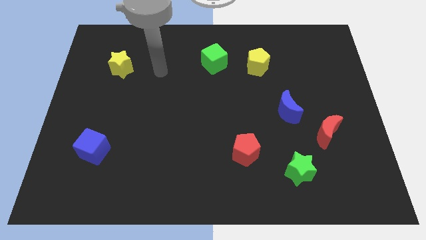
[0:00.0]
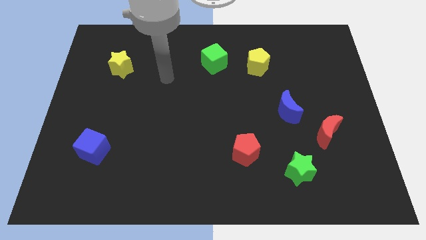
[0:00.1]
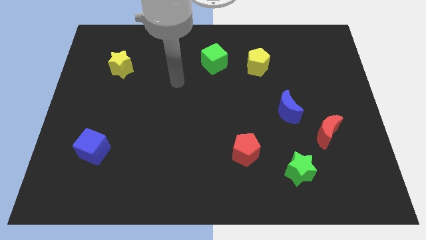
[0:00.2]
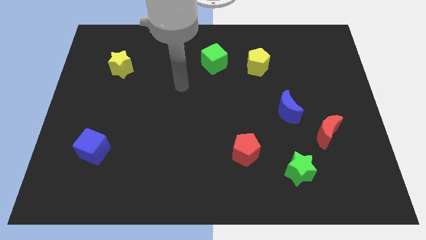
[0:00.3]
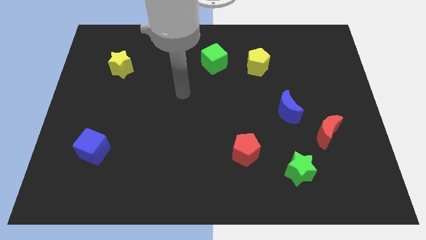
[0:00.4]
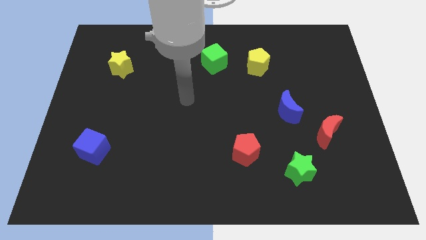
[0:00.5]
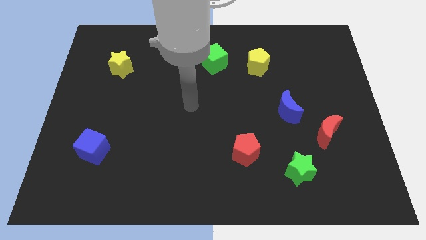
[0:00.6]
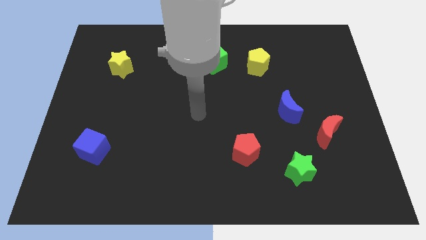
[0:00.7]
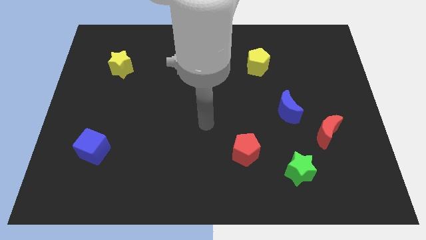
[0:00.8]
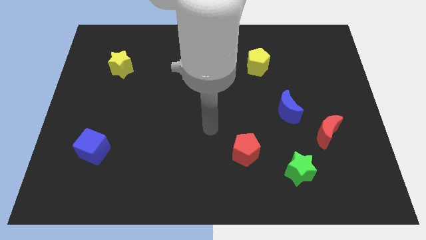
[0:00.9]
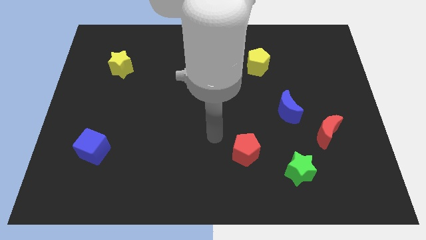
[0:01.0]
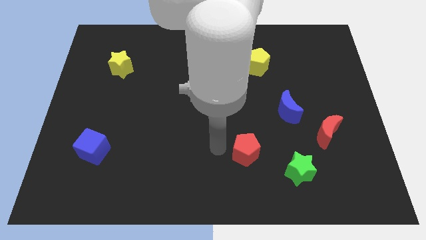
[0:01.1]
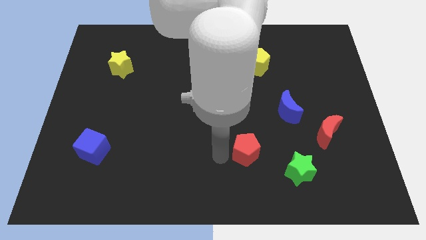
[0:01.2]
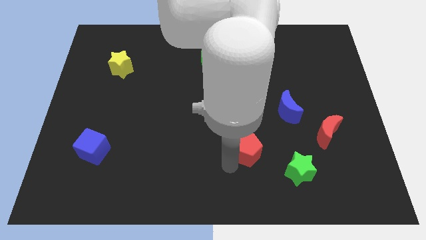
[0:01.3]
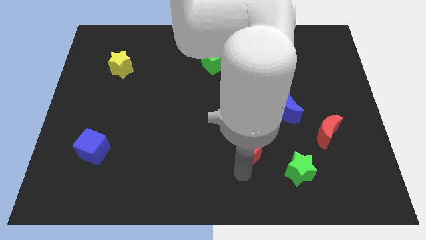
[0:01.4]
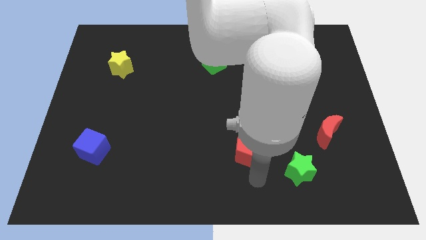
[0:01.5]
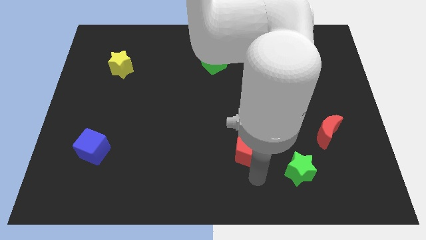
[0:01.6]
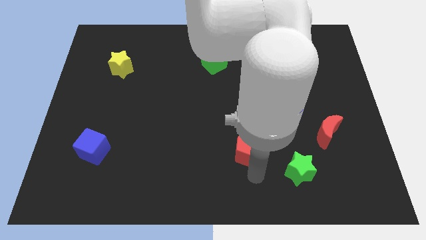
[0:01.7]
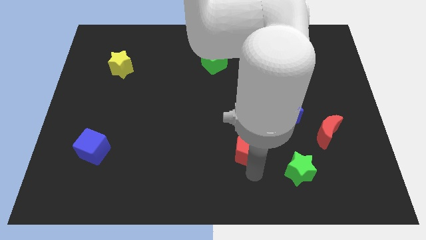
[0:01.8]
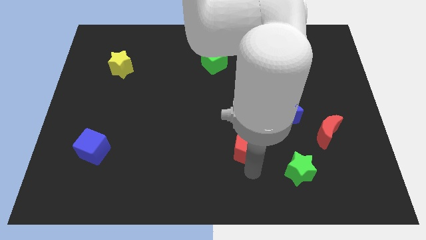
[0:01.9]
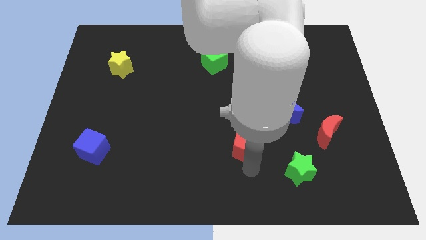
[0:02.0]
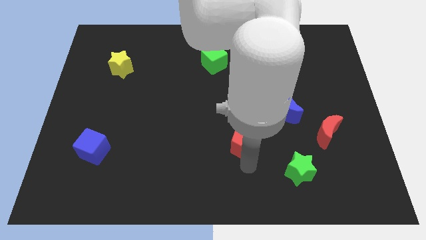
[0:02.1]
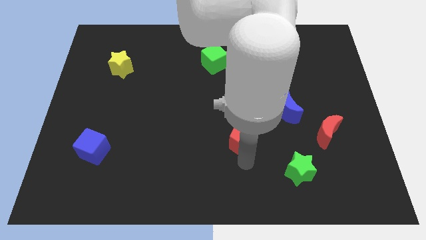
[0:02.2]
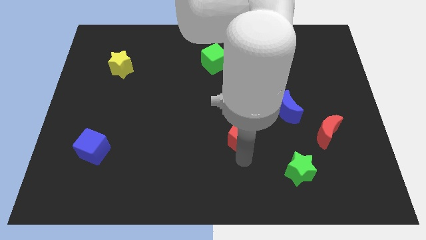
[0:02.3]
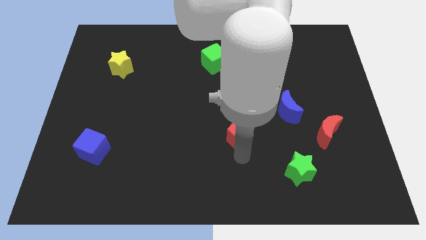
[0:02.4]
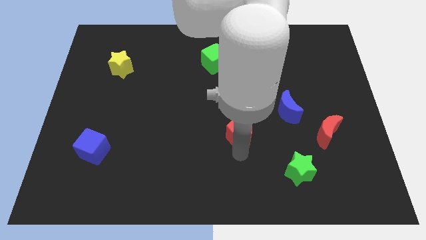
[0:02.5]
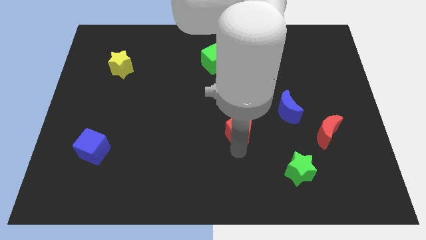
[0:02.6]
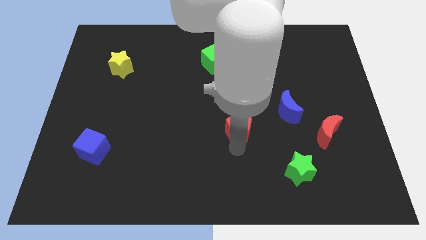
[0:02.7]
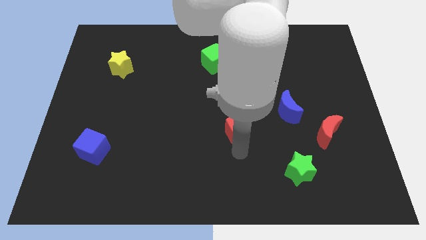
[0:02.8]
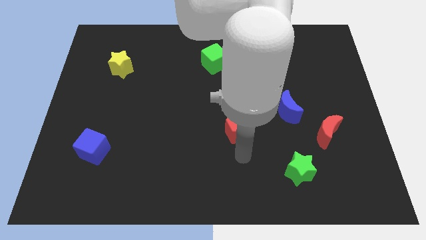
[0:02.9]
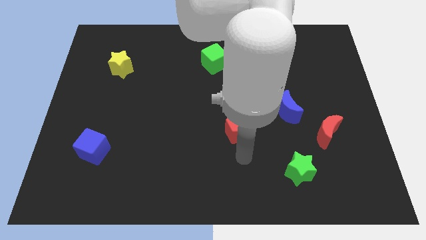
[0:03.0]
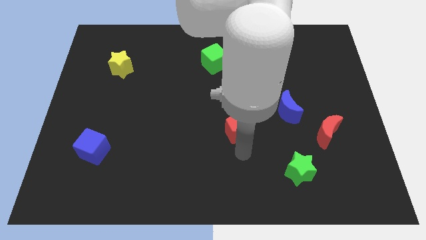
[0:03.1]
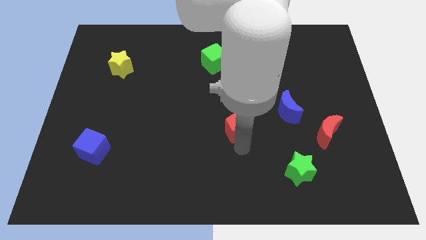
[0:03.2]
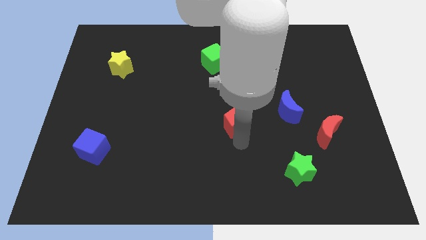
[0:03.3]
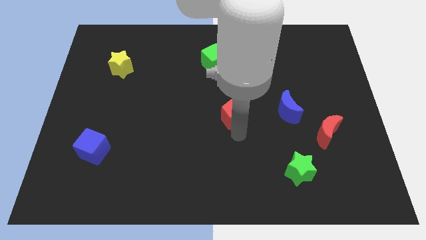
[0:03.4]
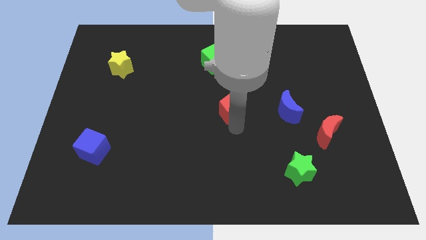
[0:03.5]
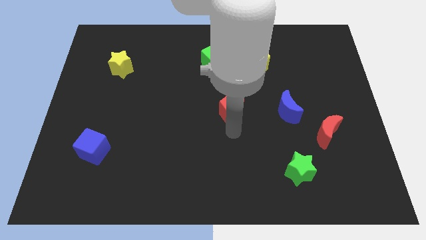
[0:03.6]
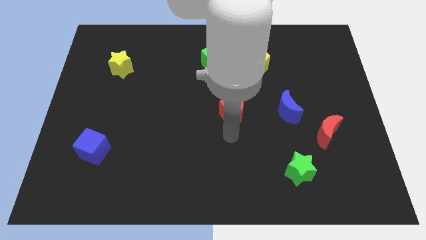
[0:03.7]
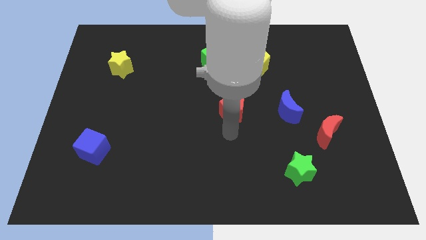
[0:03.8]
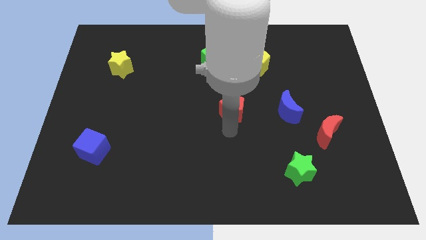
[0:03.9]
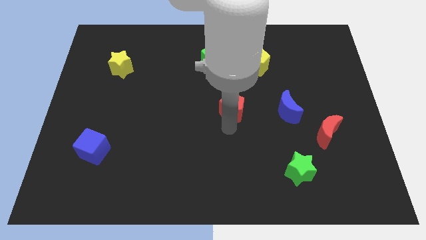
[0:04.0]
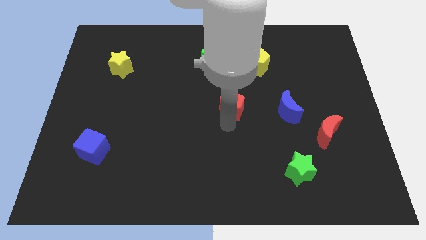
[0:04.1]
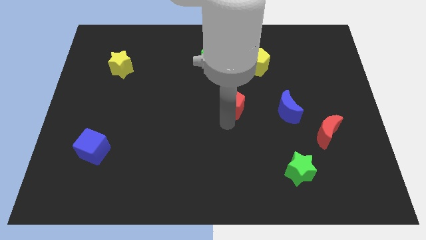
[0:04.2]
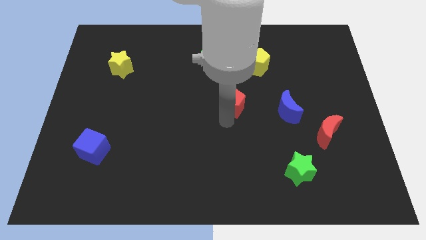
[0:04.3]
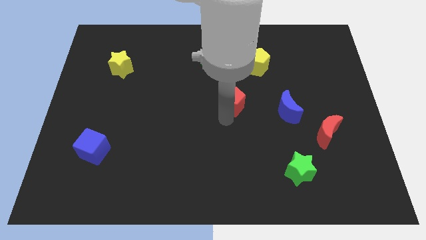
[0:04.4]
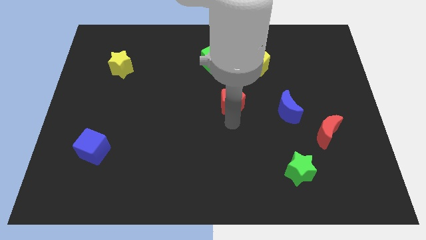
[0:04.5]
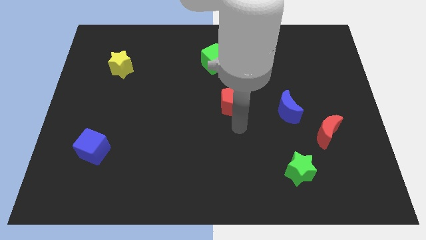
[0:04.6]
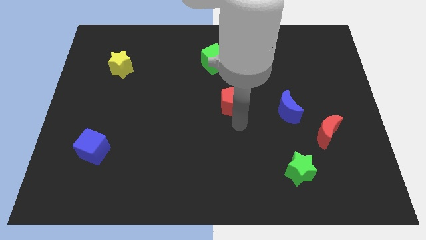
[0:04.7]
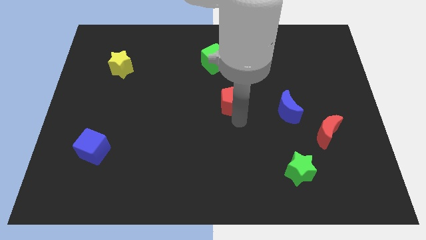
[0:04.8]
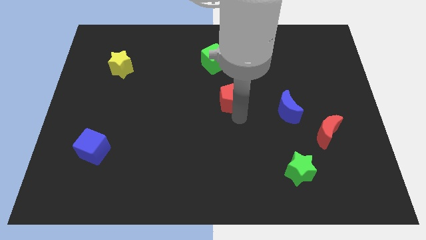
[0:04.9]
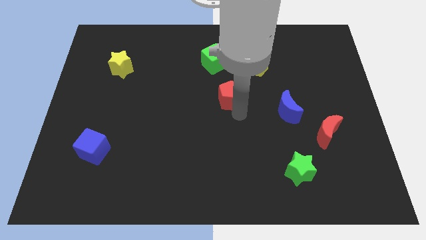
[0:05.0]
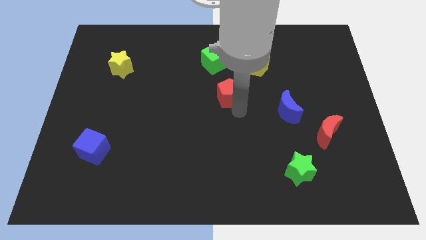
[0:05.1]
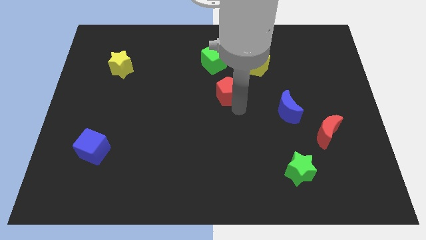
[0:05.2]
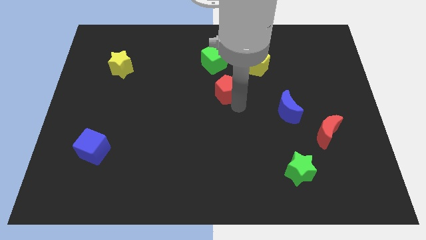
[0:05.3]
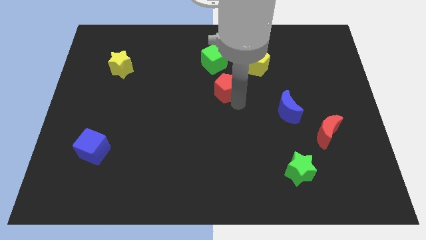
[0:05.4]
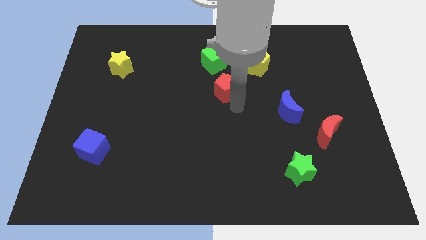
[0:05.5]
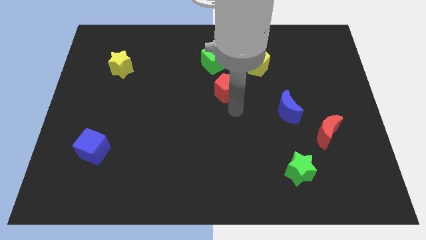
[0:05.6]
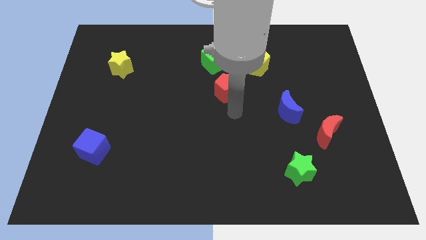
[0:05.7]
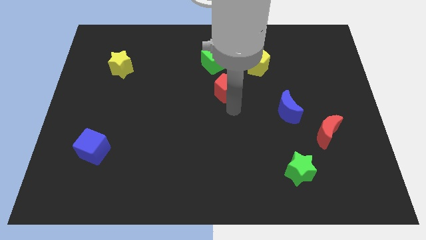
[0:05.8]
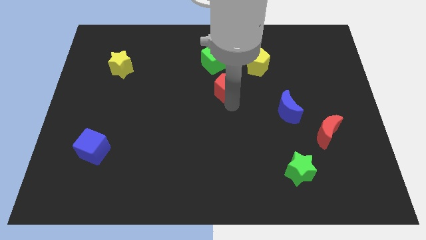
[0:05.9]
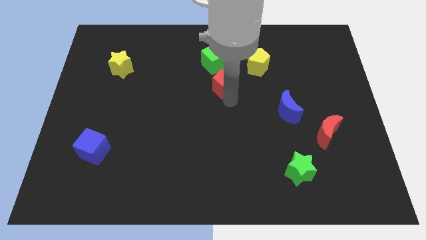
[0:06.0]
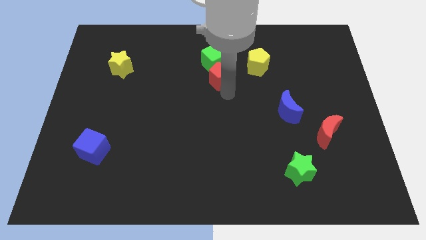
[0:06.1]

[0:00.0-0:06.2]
move the red pentagon towards the green cube

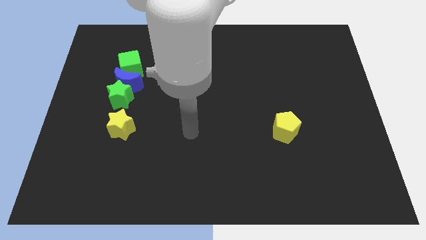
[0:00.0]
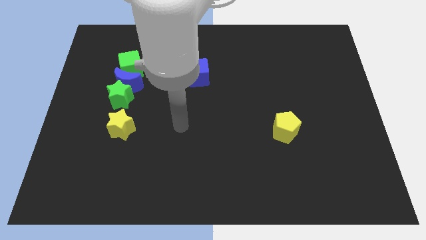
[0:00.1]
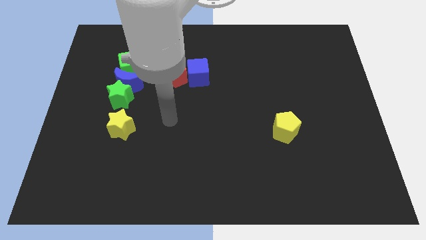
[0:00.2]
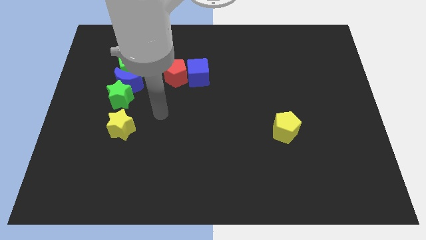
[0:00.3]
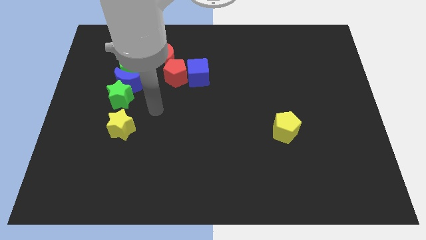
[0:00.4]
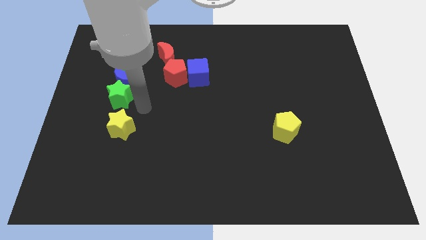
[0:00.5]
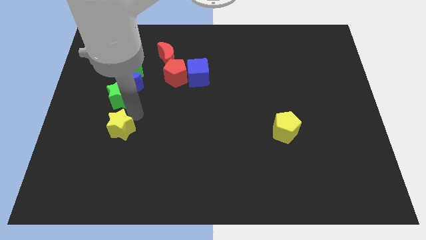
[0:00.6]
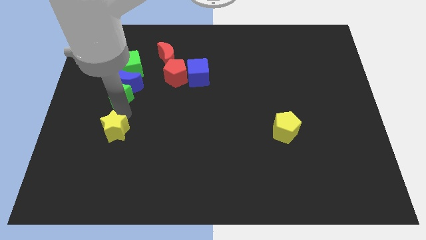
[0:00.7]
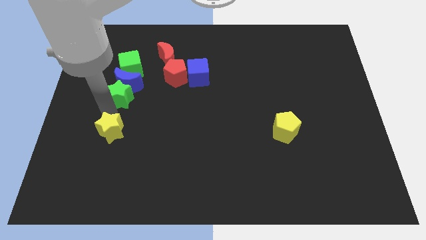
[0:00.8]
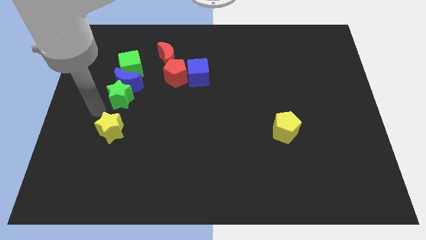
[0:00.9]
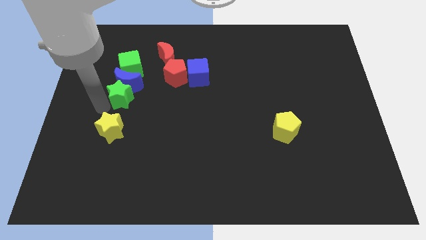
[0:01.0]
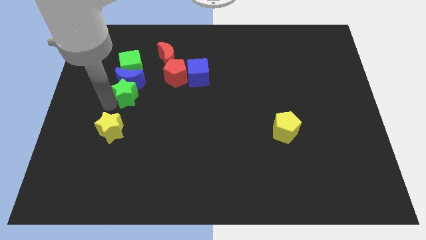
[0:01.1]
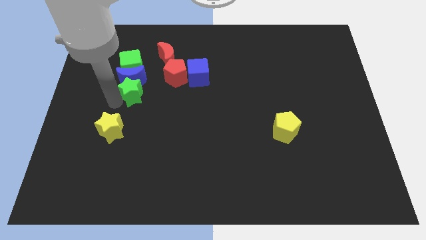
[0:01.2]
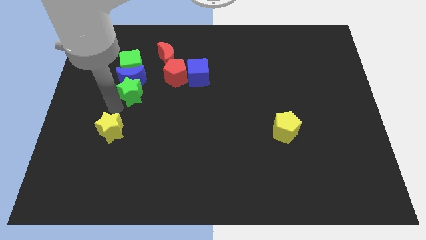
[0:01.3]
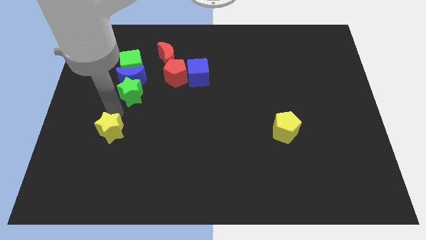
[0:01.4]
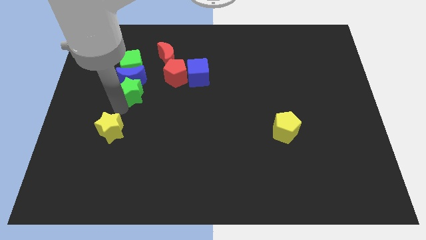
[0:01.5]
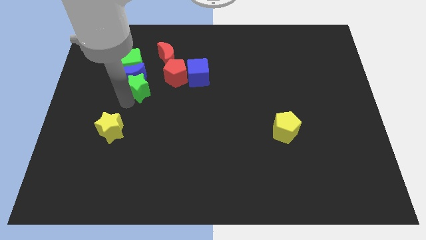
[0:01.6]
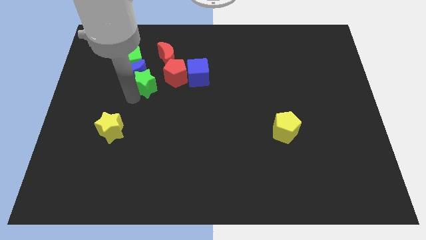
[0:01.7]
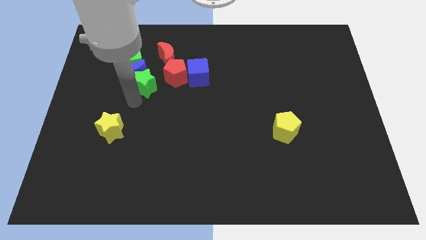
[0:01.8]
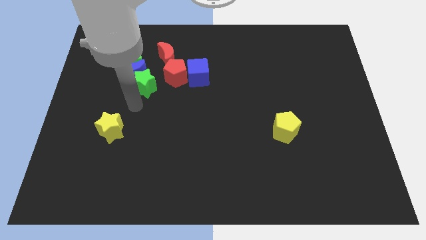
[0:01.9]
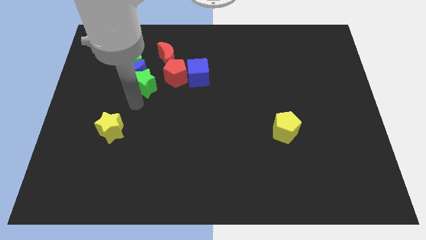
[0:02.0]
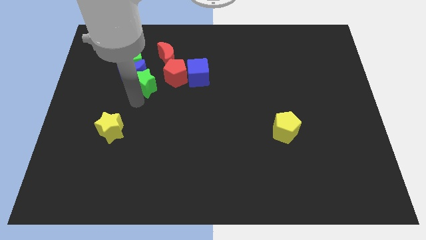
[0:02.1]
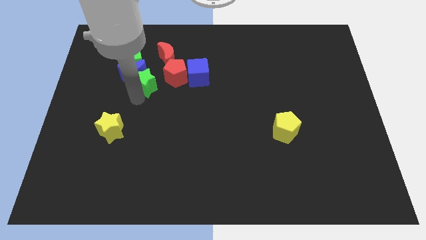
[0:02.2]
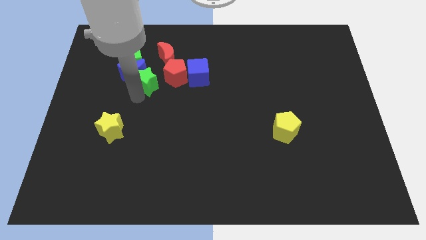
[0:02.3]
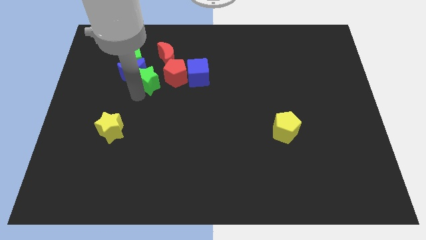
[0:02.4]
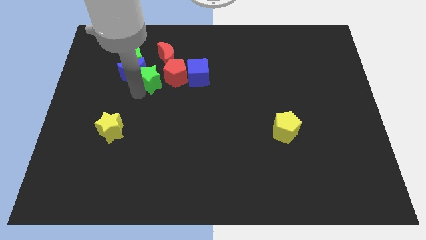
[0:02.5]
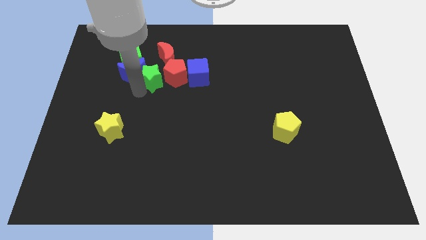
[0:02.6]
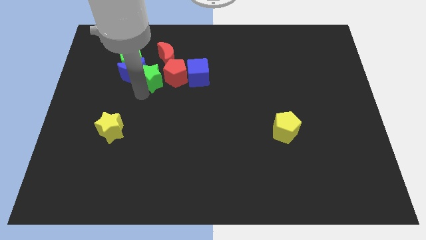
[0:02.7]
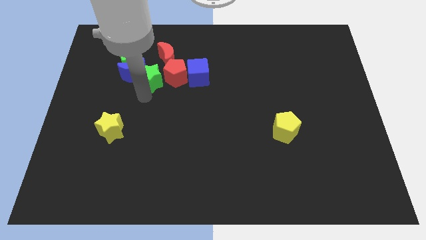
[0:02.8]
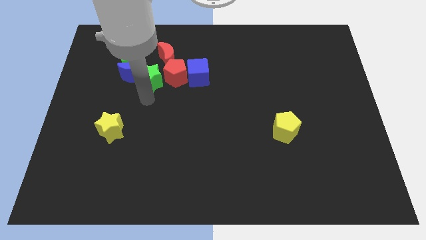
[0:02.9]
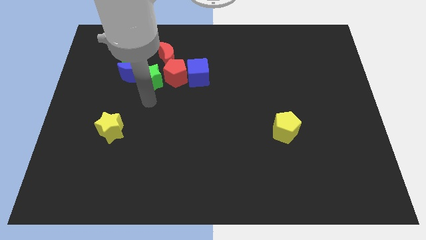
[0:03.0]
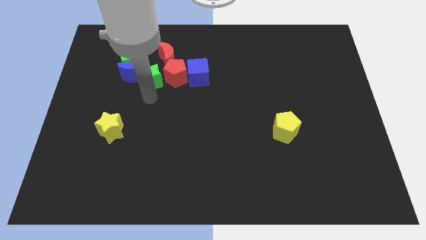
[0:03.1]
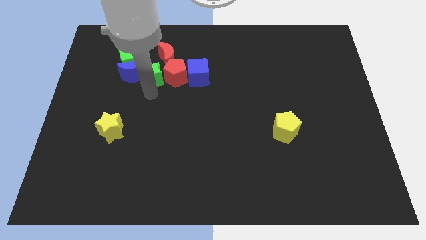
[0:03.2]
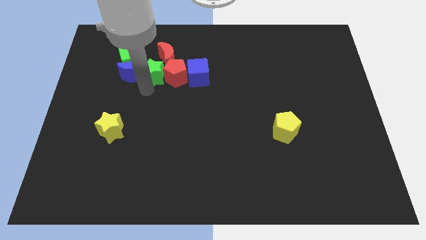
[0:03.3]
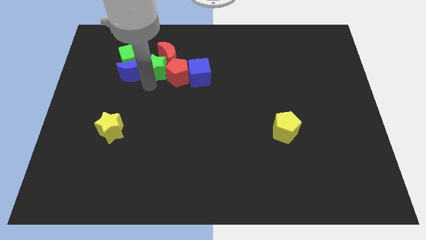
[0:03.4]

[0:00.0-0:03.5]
move the green star to the red moon
